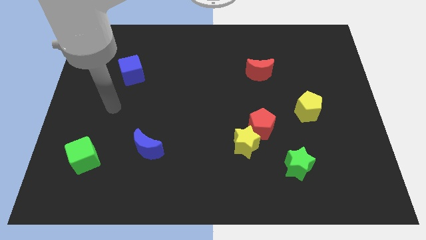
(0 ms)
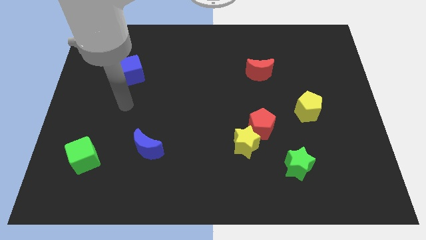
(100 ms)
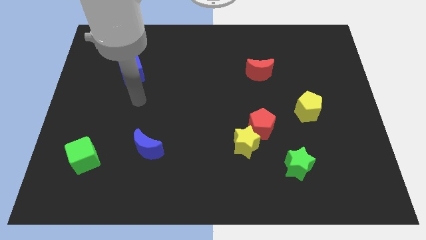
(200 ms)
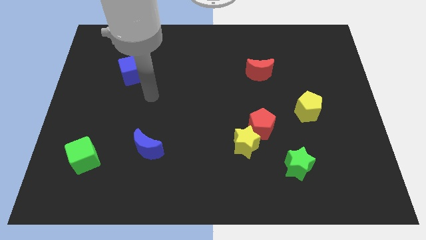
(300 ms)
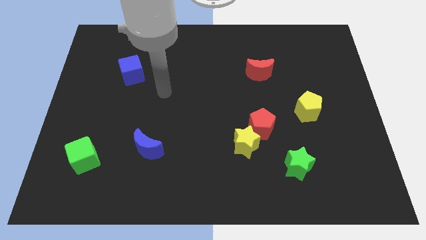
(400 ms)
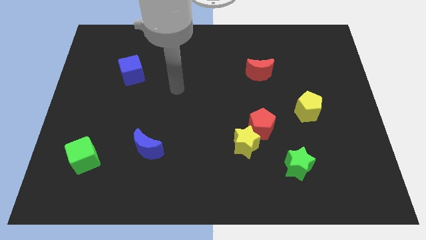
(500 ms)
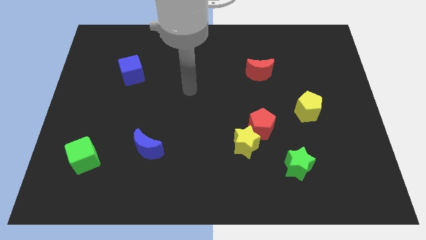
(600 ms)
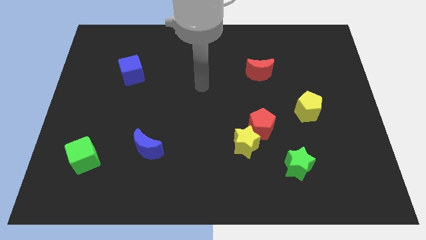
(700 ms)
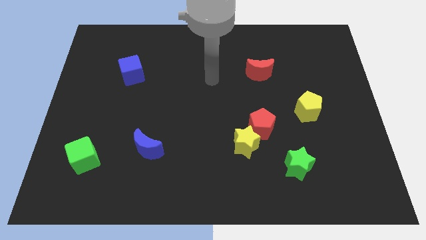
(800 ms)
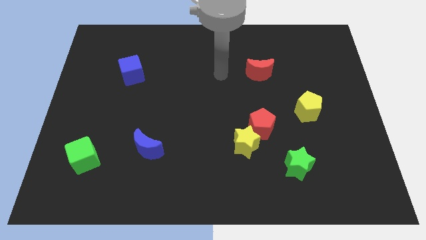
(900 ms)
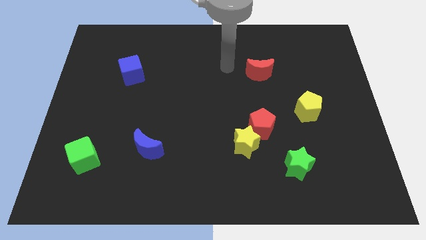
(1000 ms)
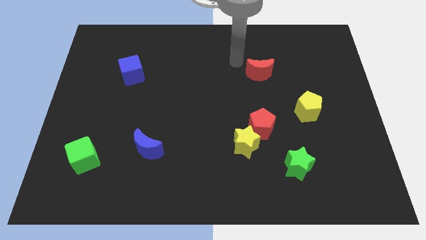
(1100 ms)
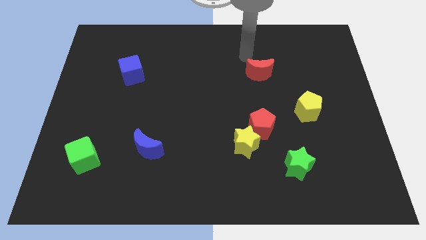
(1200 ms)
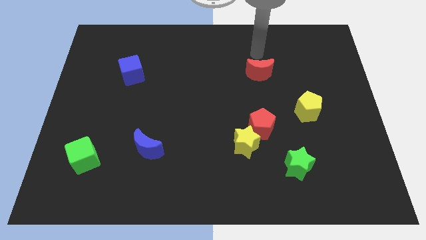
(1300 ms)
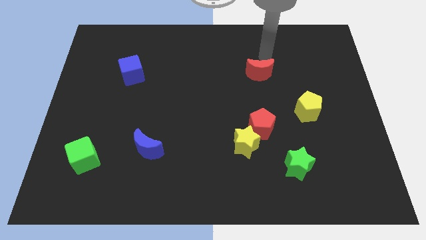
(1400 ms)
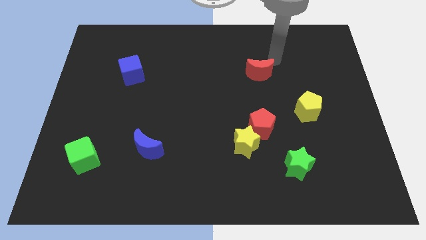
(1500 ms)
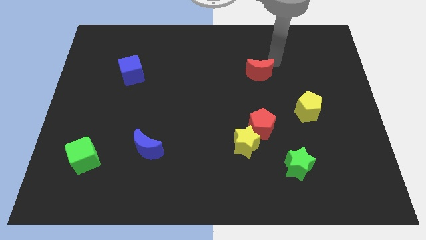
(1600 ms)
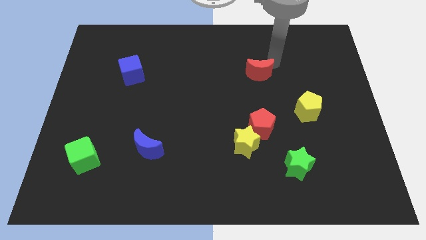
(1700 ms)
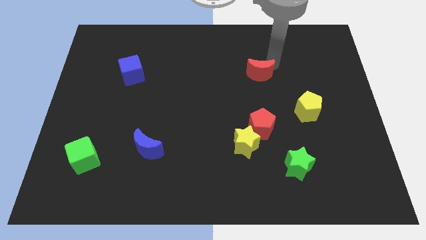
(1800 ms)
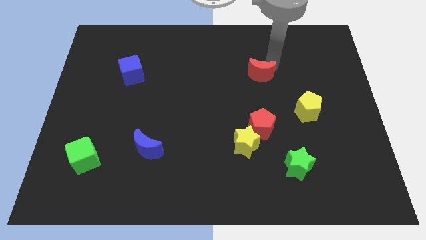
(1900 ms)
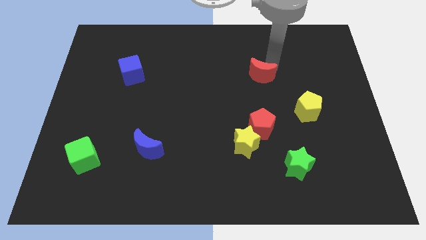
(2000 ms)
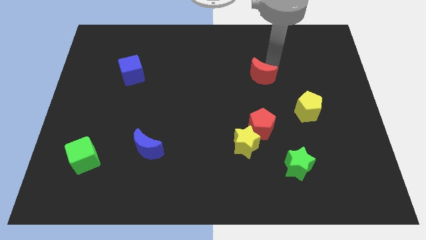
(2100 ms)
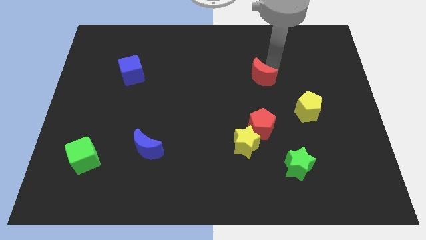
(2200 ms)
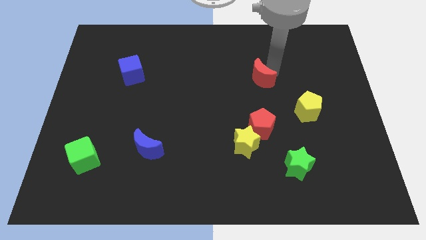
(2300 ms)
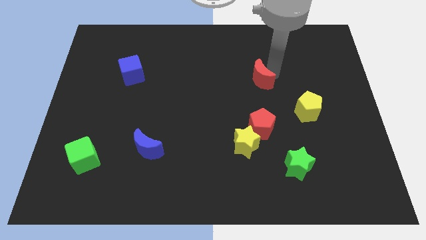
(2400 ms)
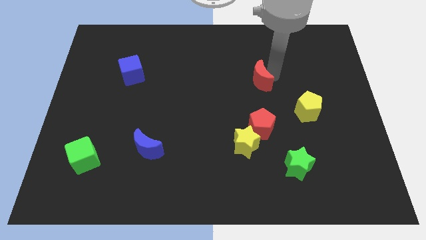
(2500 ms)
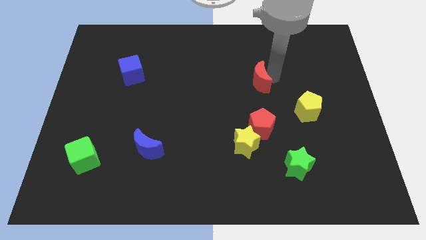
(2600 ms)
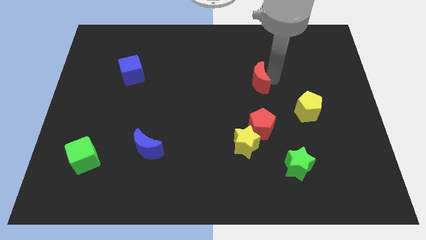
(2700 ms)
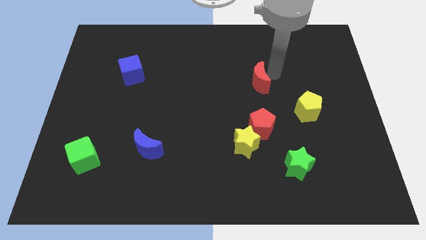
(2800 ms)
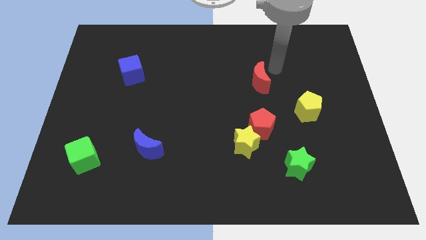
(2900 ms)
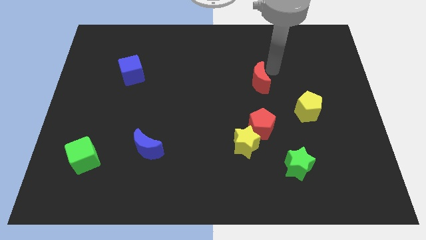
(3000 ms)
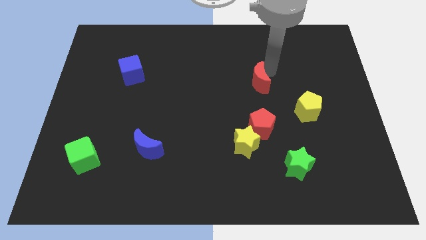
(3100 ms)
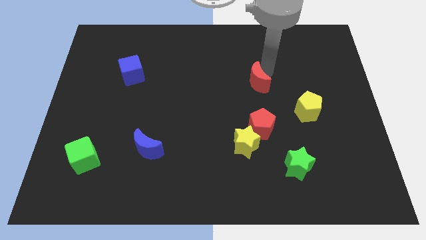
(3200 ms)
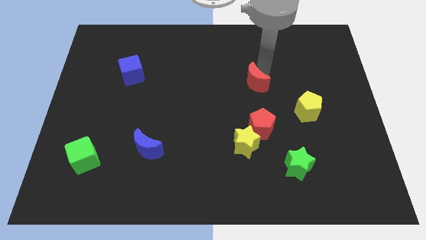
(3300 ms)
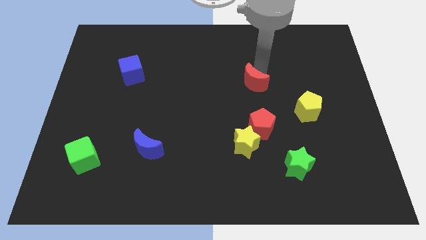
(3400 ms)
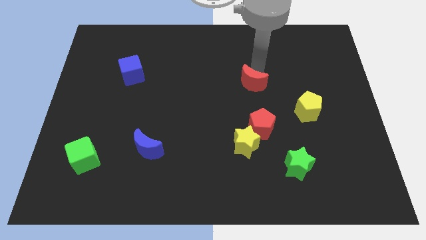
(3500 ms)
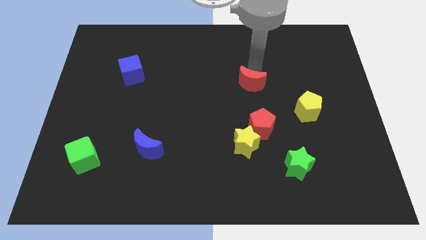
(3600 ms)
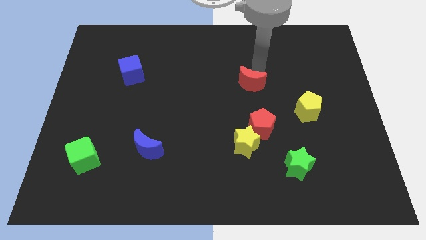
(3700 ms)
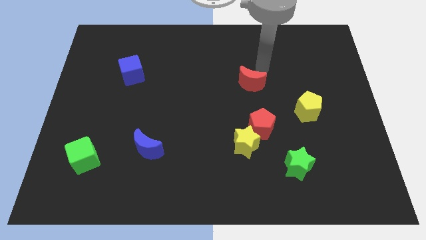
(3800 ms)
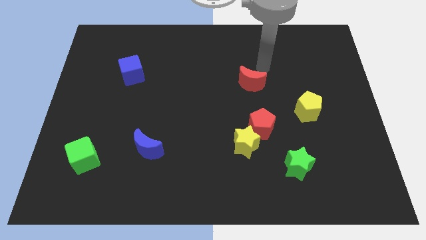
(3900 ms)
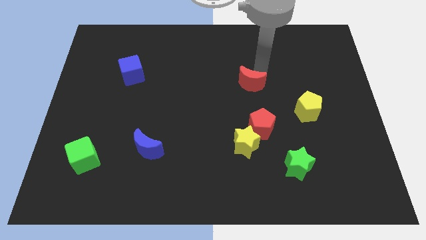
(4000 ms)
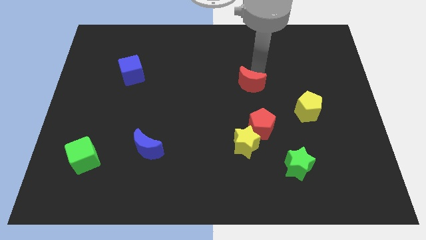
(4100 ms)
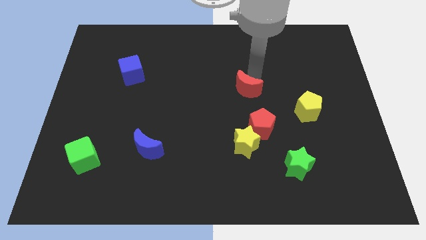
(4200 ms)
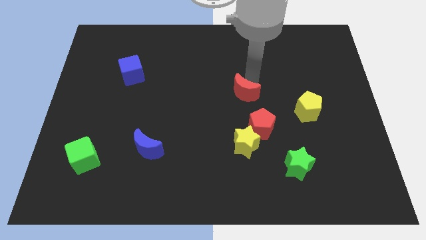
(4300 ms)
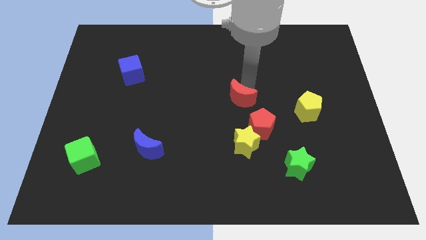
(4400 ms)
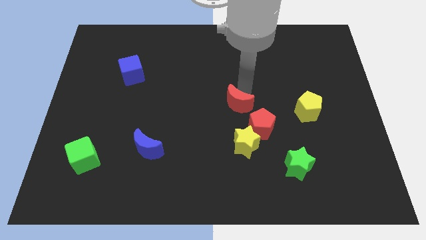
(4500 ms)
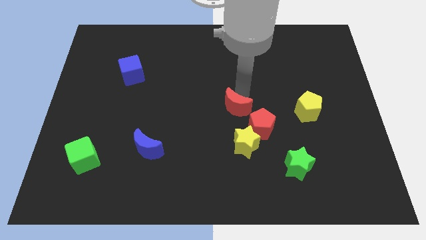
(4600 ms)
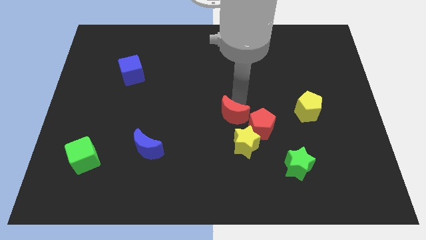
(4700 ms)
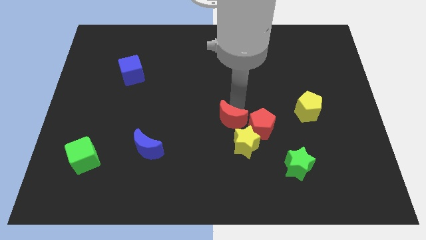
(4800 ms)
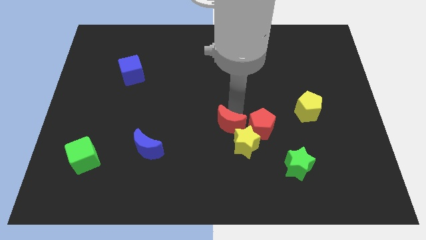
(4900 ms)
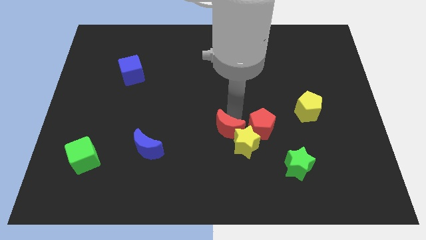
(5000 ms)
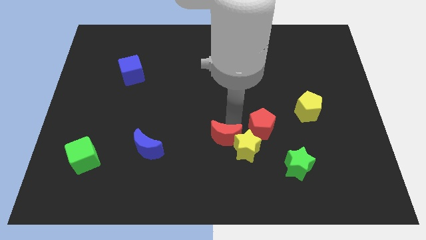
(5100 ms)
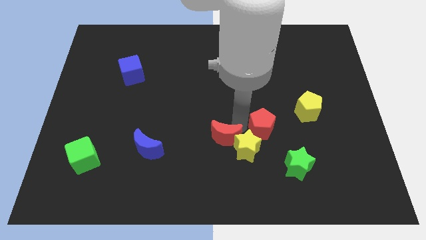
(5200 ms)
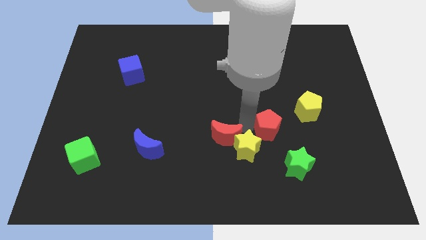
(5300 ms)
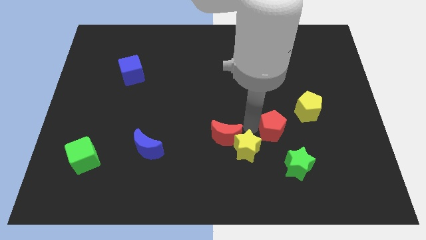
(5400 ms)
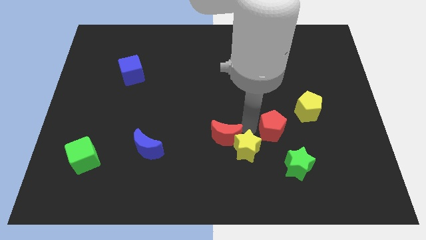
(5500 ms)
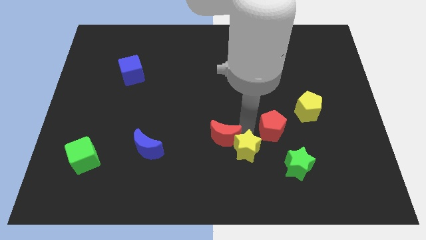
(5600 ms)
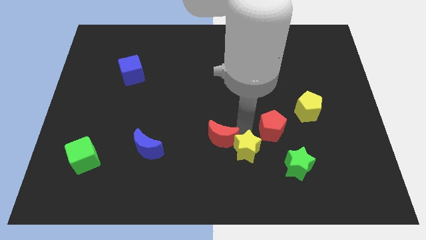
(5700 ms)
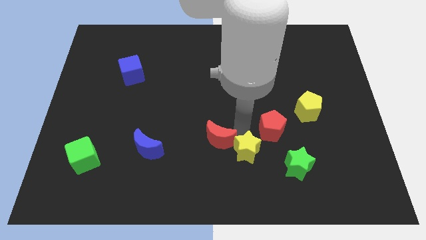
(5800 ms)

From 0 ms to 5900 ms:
slide the red moon just right of the blue moon
